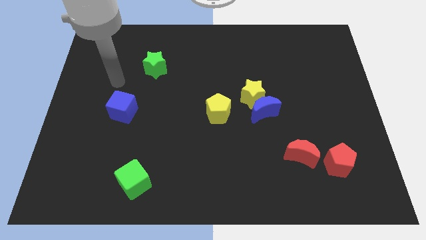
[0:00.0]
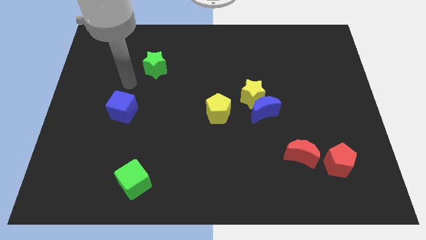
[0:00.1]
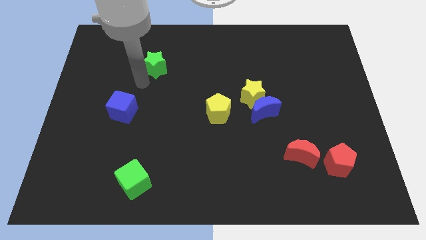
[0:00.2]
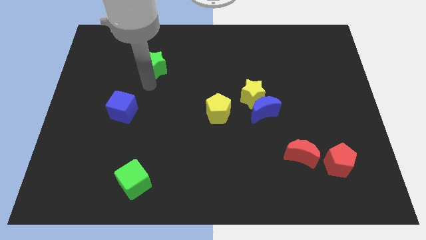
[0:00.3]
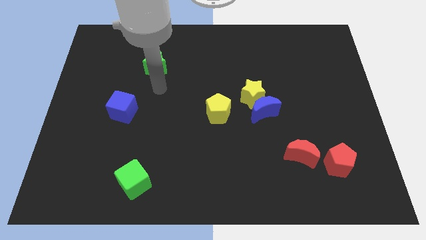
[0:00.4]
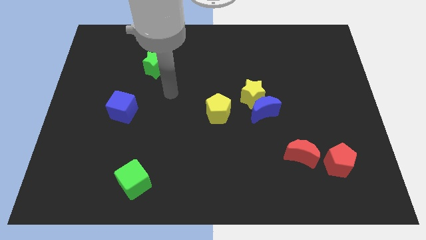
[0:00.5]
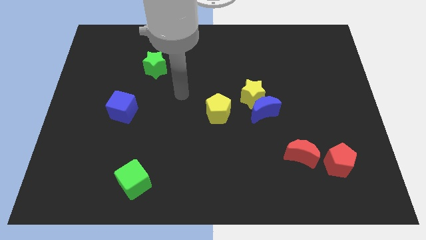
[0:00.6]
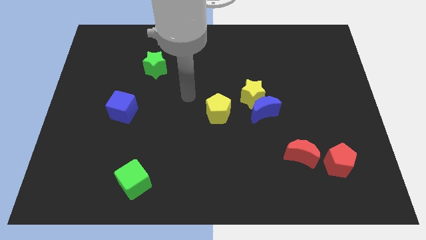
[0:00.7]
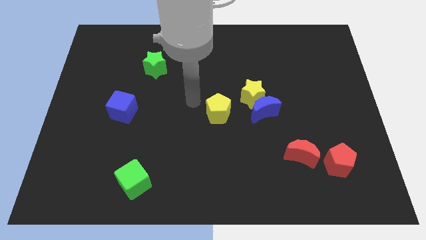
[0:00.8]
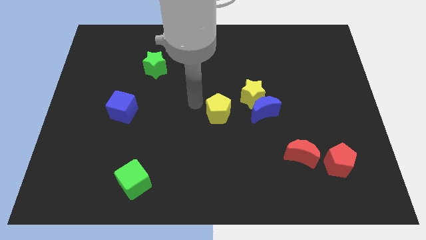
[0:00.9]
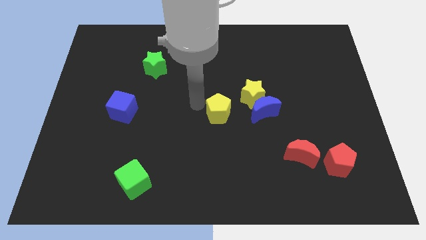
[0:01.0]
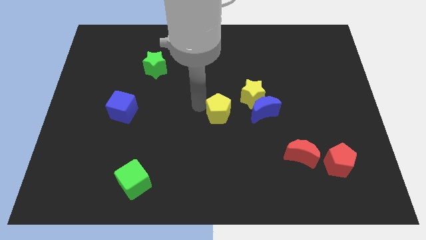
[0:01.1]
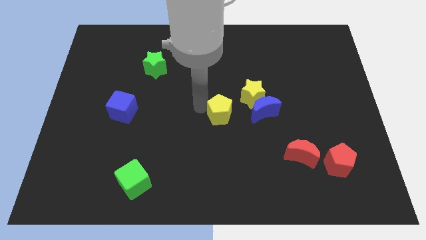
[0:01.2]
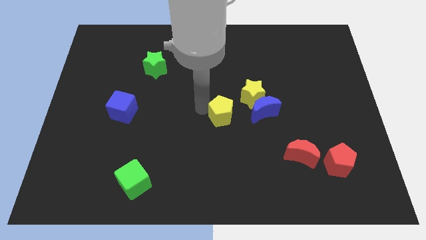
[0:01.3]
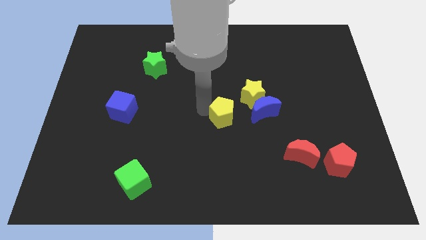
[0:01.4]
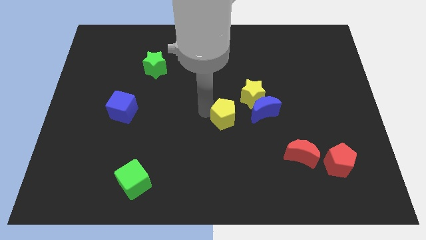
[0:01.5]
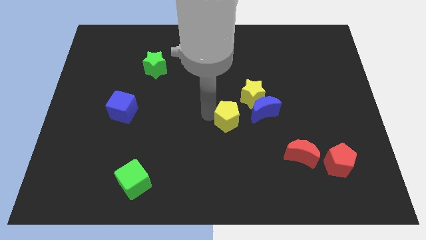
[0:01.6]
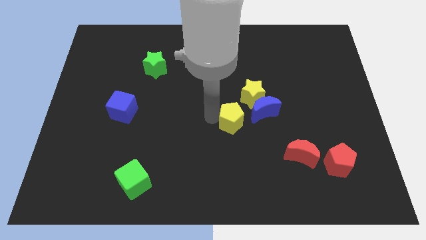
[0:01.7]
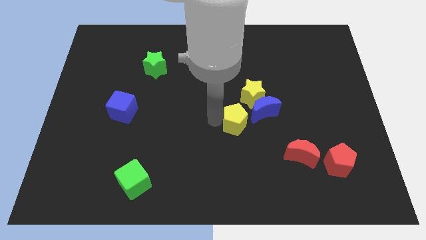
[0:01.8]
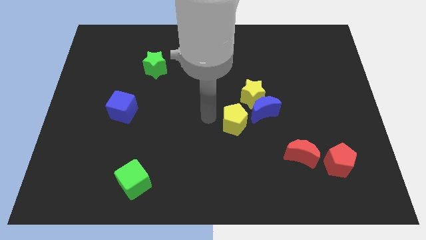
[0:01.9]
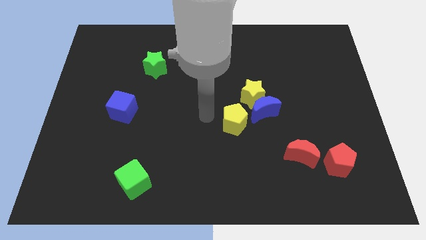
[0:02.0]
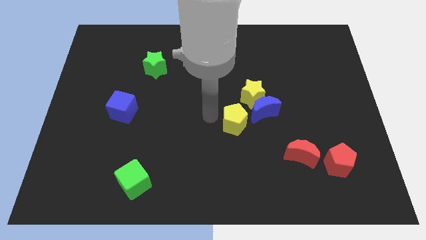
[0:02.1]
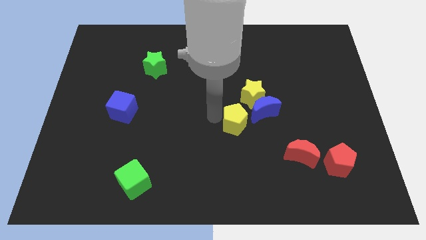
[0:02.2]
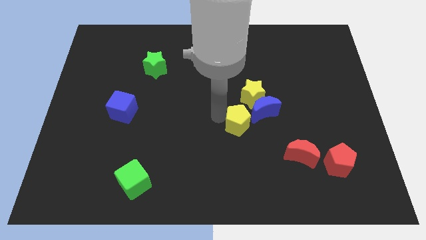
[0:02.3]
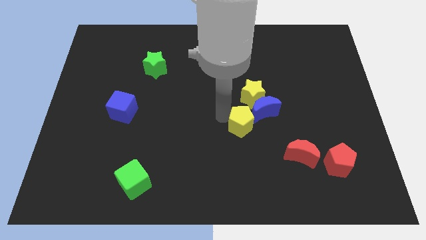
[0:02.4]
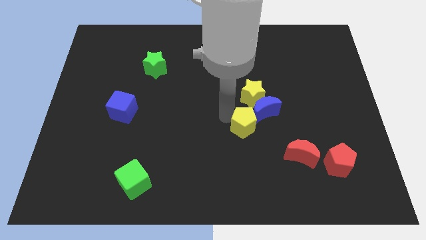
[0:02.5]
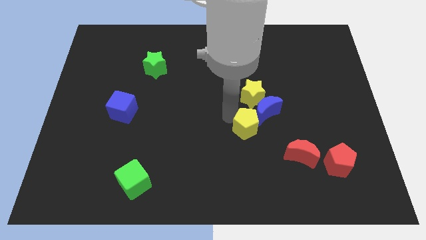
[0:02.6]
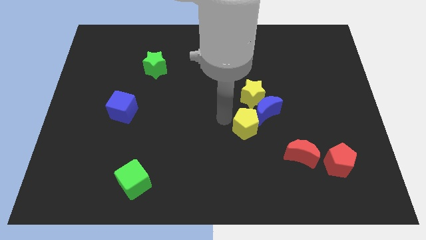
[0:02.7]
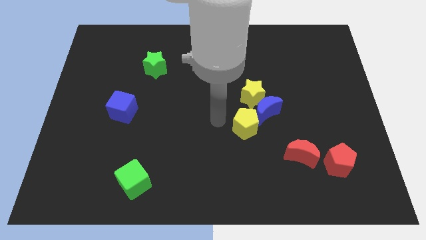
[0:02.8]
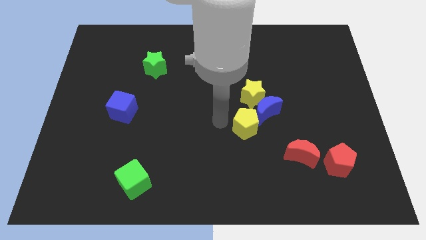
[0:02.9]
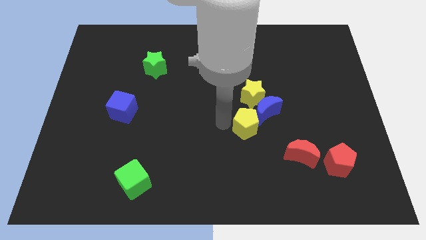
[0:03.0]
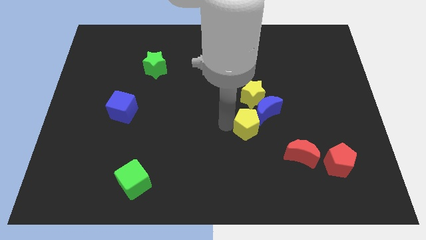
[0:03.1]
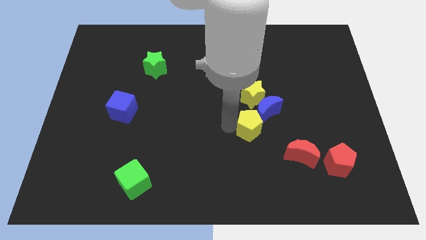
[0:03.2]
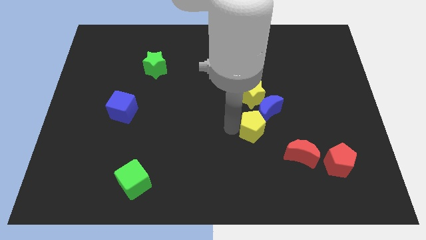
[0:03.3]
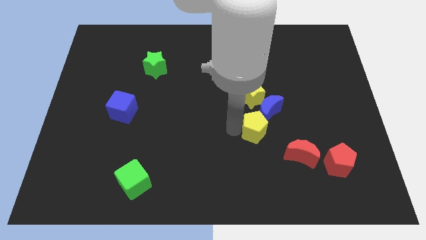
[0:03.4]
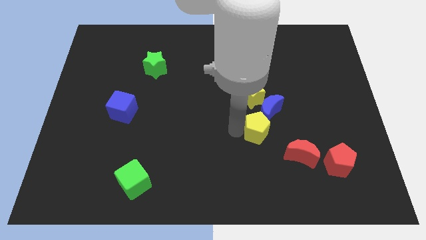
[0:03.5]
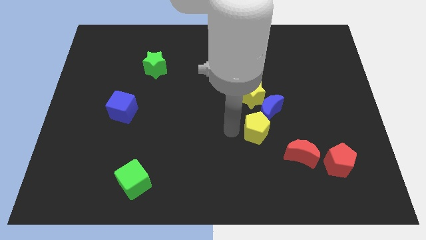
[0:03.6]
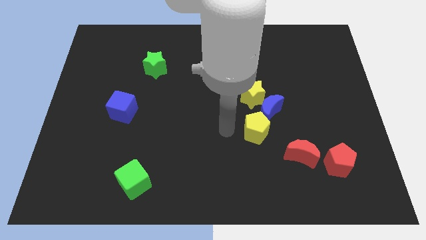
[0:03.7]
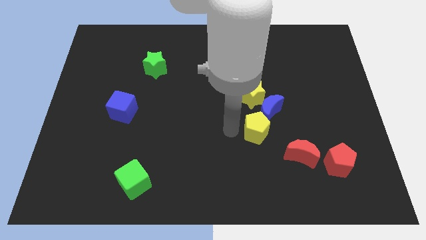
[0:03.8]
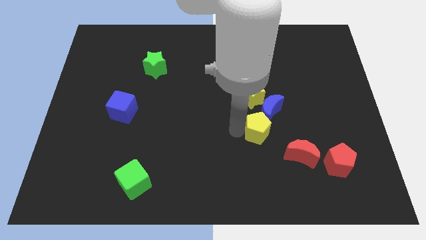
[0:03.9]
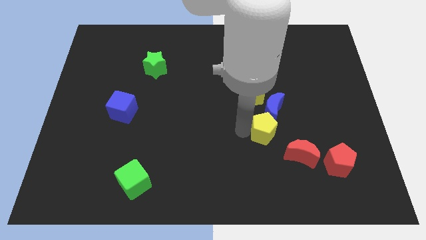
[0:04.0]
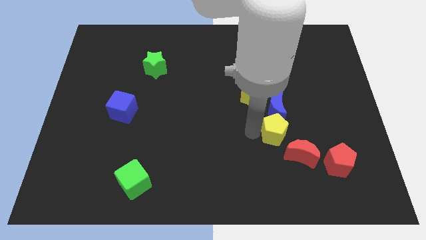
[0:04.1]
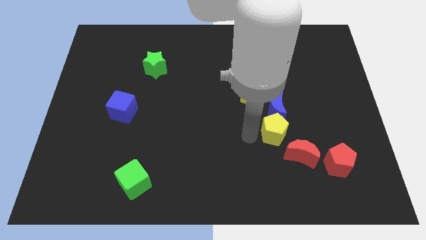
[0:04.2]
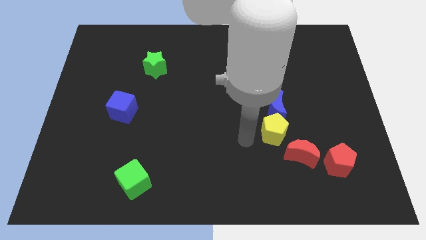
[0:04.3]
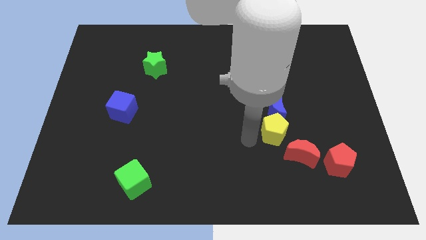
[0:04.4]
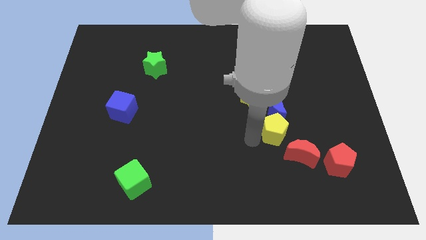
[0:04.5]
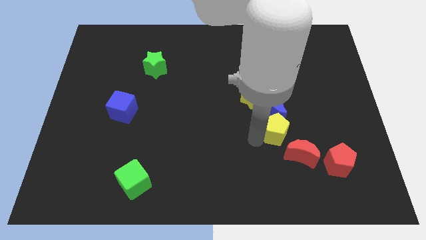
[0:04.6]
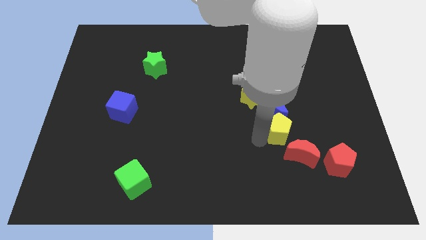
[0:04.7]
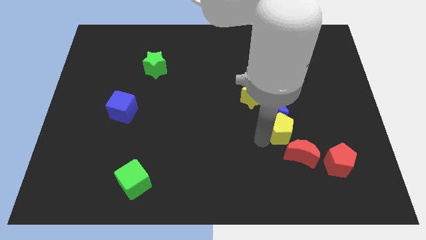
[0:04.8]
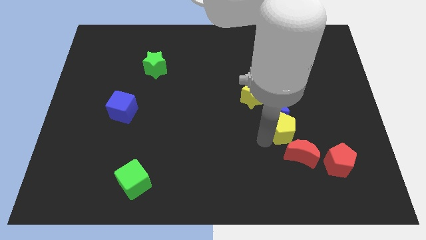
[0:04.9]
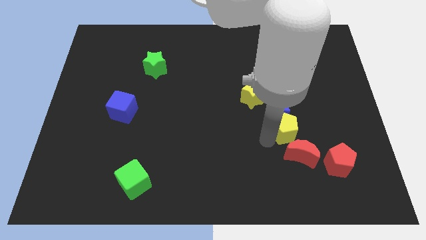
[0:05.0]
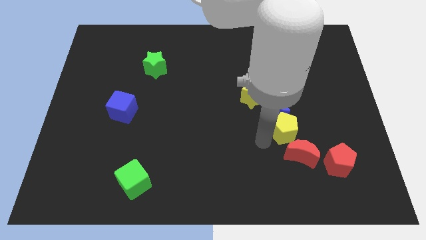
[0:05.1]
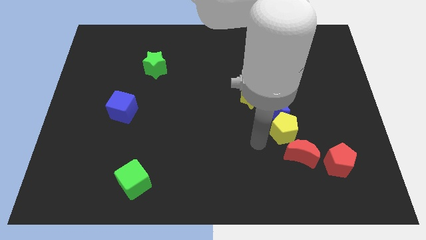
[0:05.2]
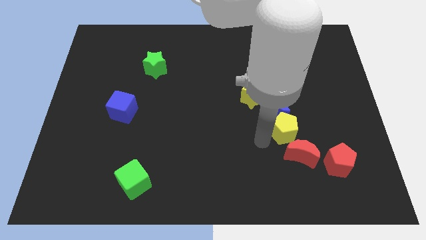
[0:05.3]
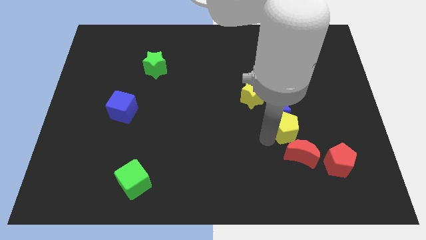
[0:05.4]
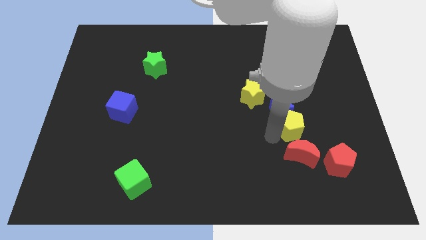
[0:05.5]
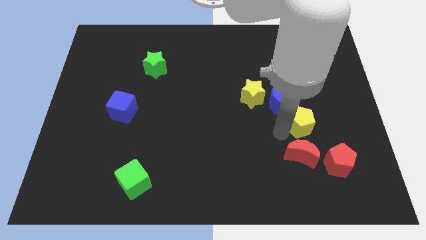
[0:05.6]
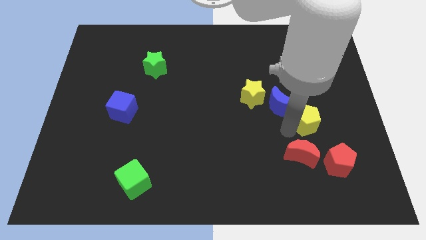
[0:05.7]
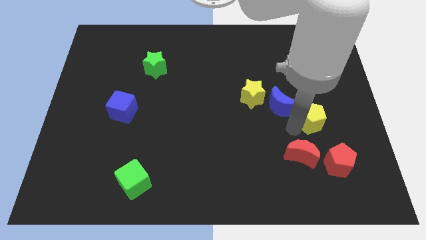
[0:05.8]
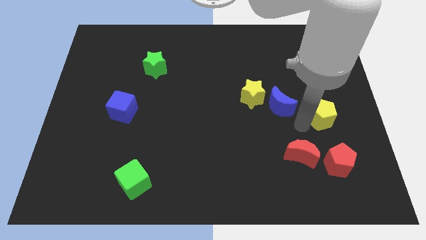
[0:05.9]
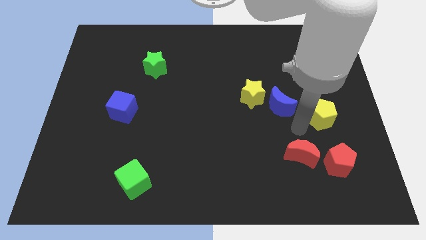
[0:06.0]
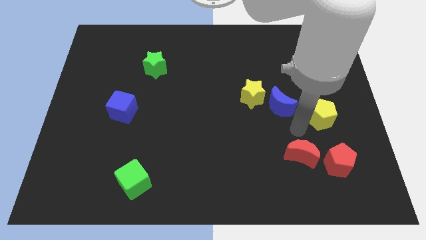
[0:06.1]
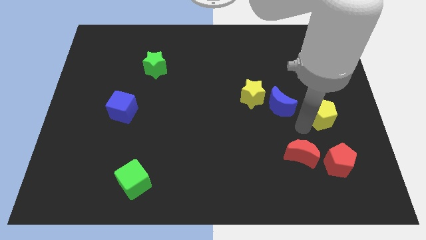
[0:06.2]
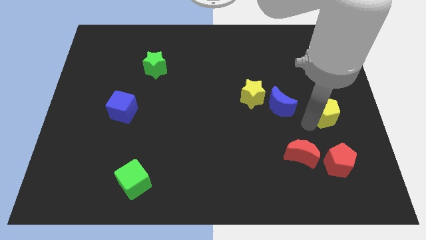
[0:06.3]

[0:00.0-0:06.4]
put the yellow pentagon to the right side of the board
